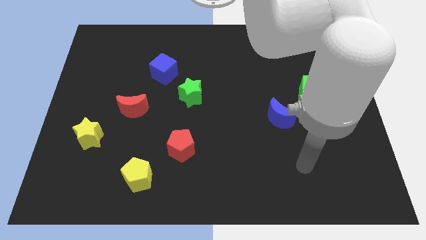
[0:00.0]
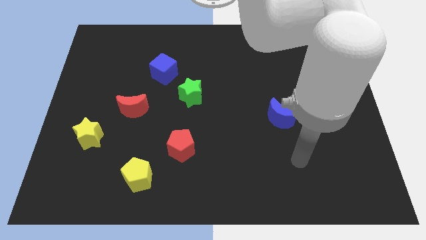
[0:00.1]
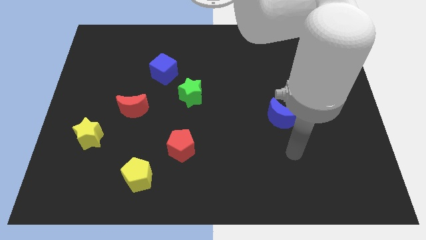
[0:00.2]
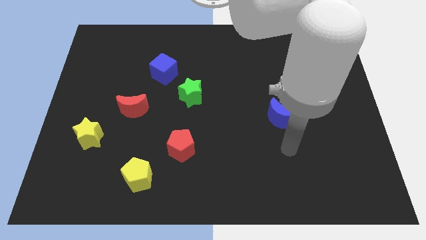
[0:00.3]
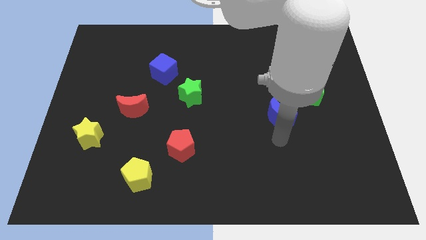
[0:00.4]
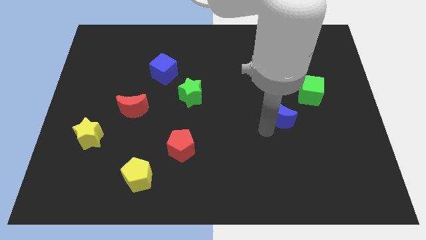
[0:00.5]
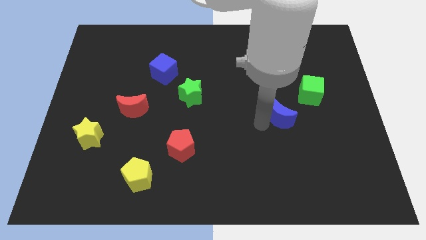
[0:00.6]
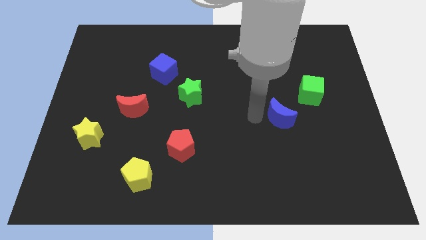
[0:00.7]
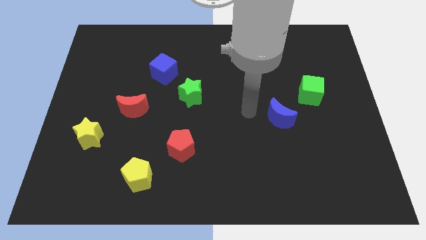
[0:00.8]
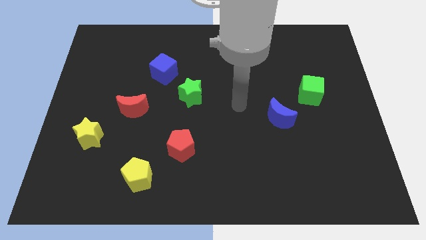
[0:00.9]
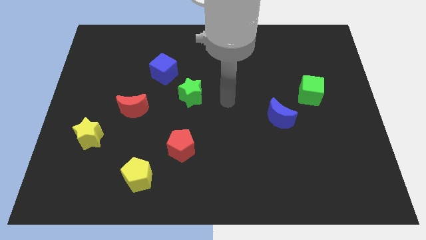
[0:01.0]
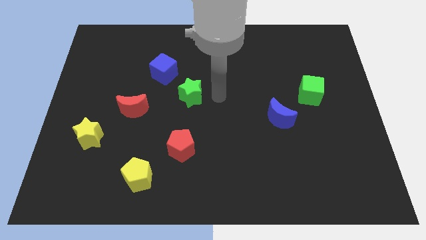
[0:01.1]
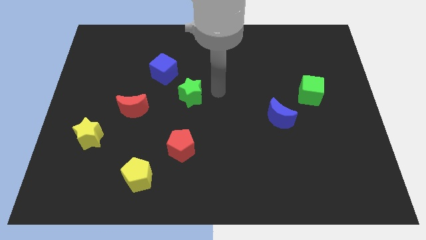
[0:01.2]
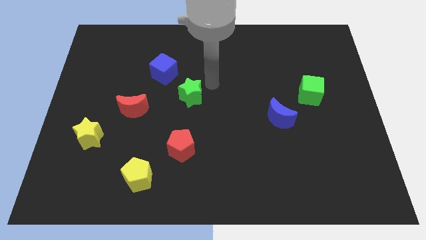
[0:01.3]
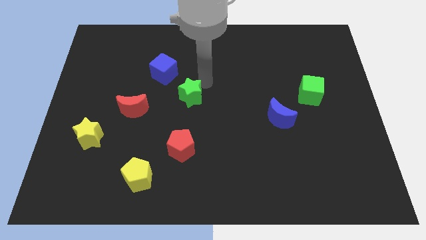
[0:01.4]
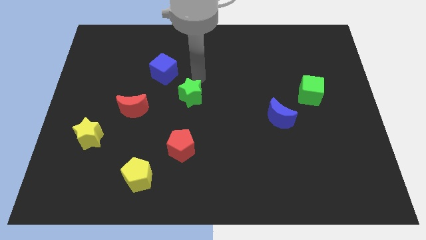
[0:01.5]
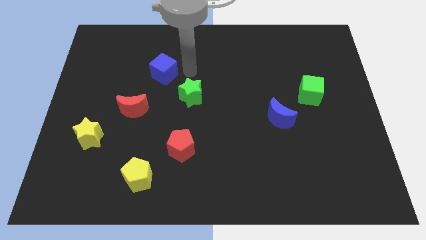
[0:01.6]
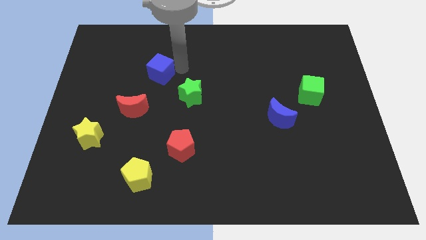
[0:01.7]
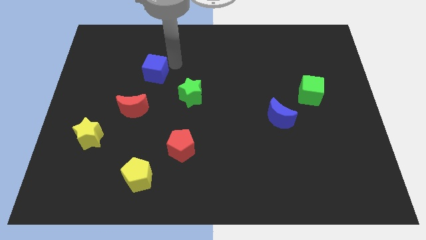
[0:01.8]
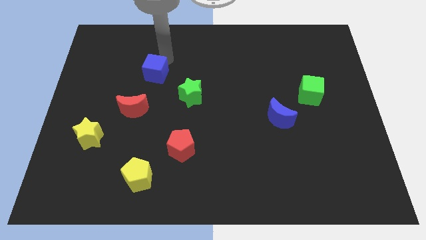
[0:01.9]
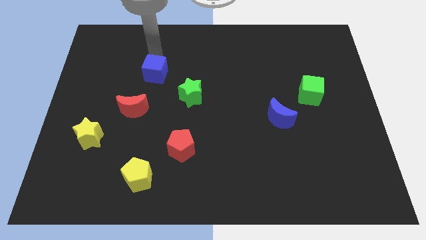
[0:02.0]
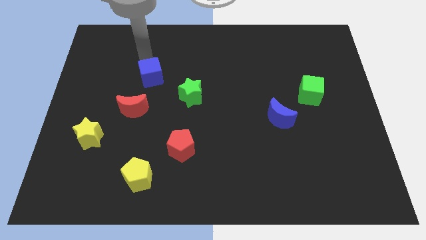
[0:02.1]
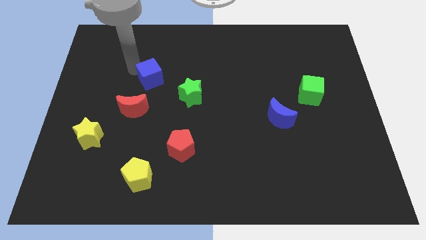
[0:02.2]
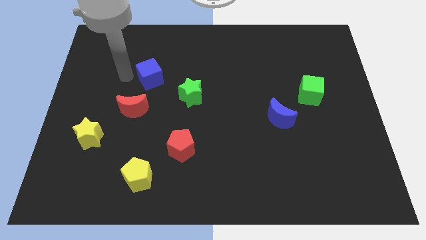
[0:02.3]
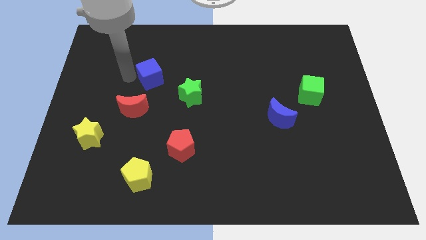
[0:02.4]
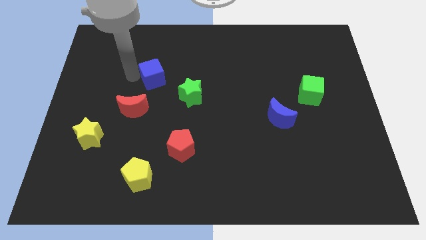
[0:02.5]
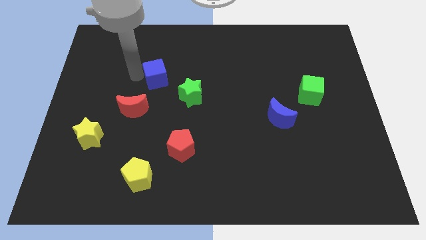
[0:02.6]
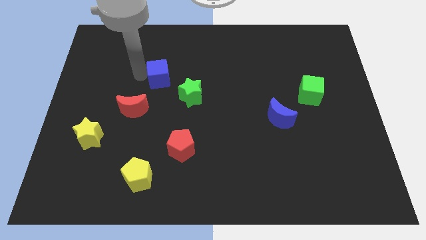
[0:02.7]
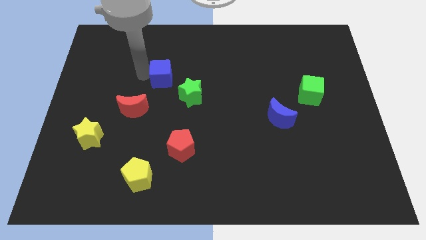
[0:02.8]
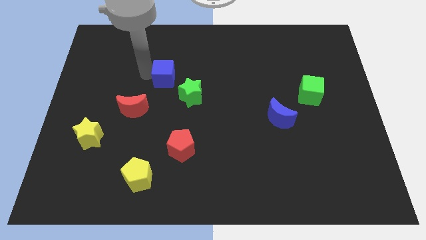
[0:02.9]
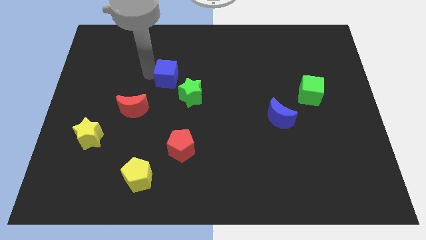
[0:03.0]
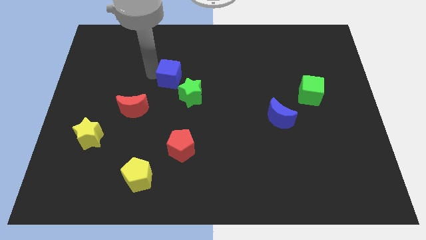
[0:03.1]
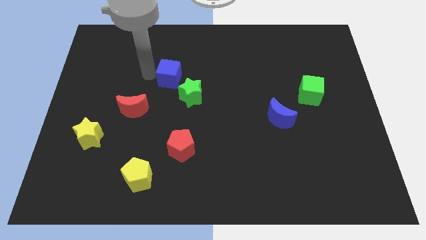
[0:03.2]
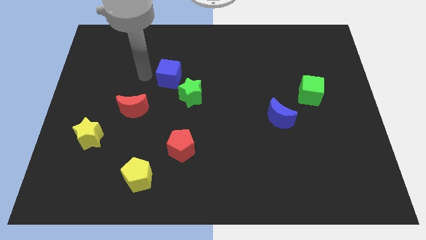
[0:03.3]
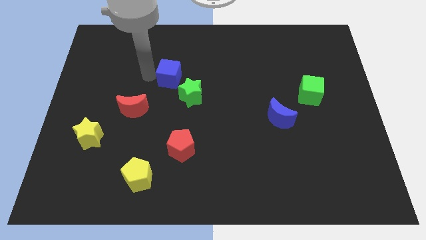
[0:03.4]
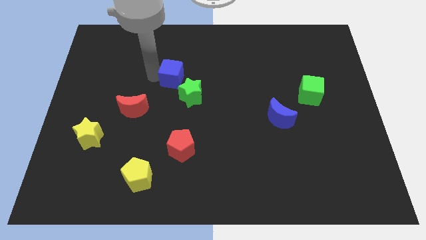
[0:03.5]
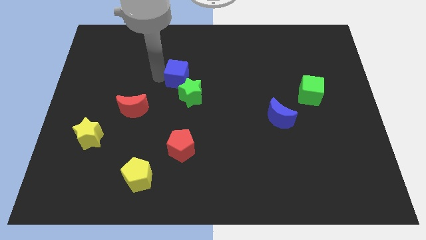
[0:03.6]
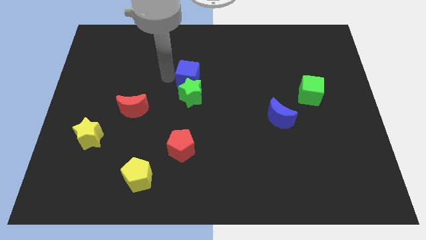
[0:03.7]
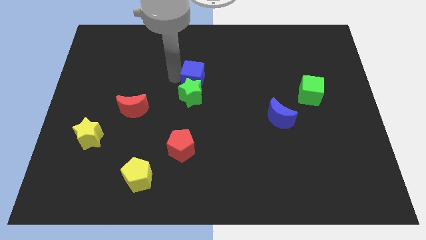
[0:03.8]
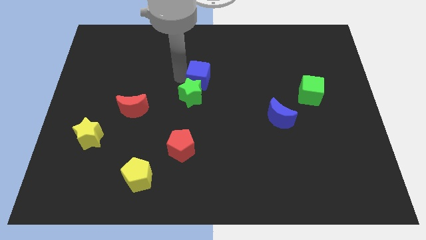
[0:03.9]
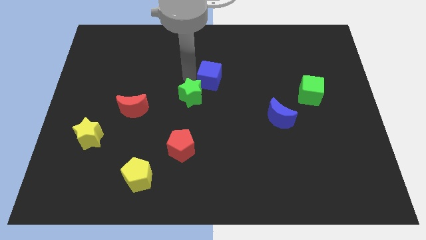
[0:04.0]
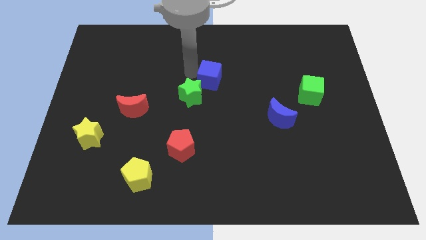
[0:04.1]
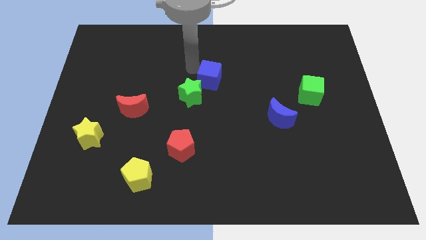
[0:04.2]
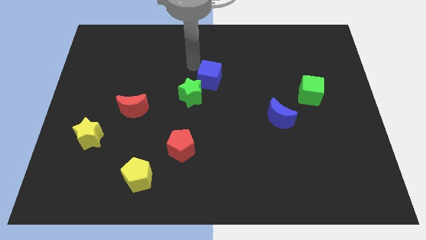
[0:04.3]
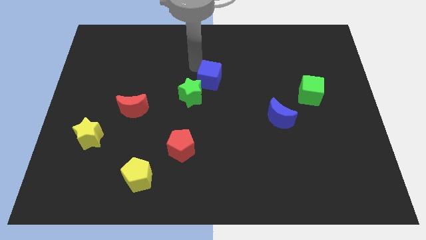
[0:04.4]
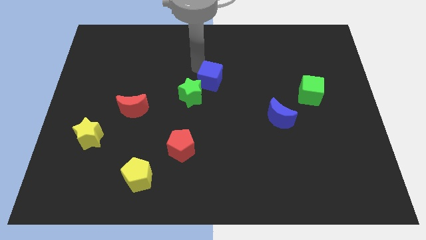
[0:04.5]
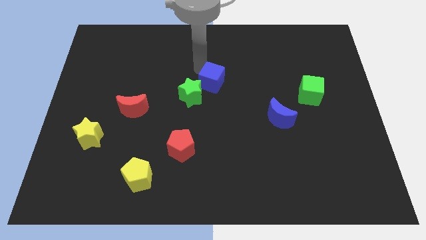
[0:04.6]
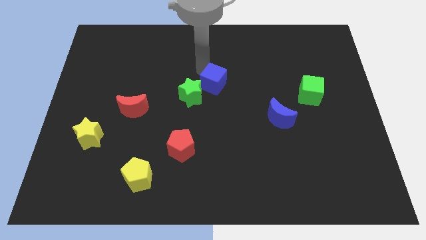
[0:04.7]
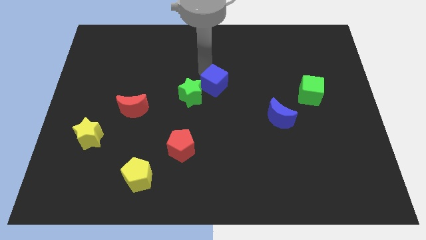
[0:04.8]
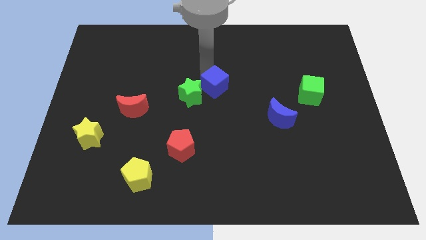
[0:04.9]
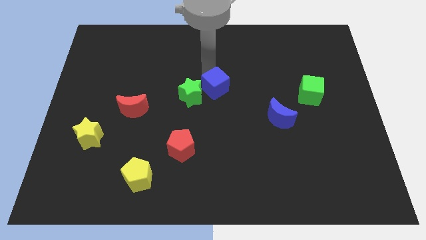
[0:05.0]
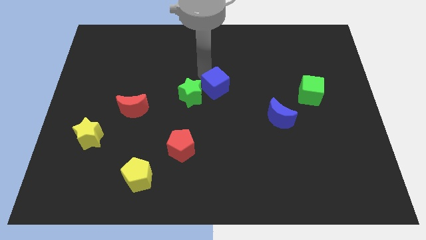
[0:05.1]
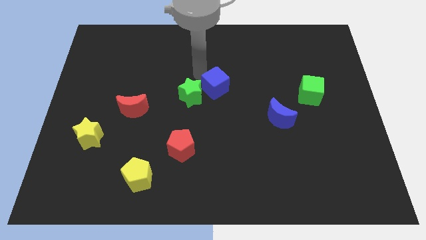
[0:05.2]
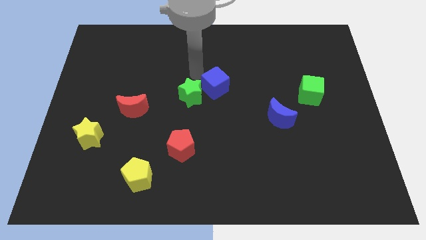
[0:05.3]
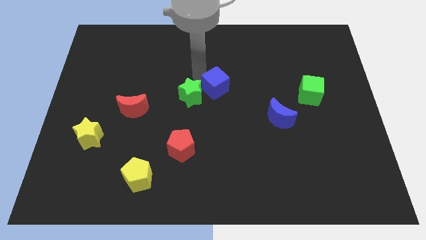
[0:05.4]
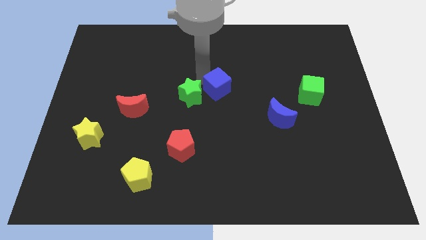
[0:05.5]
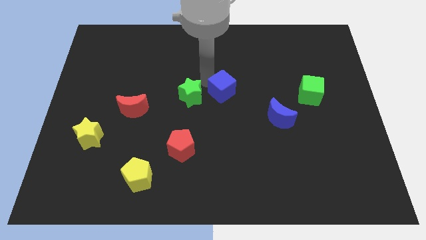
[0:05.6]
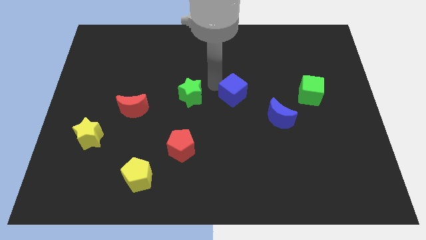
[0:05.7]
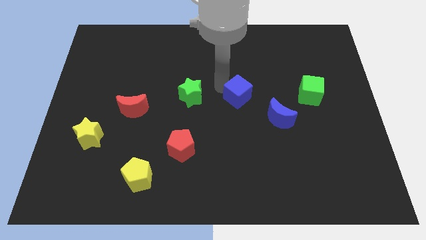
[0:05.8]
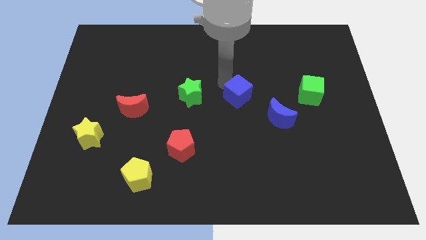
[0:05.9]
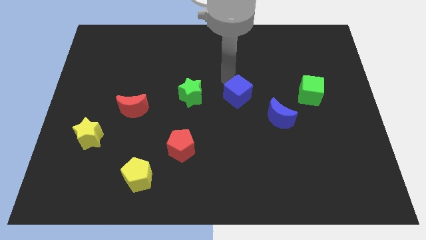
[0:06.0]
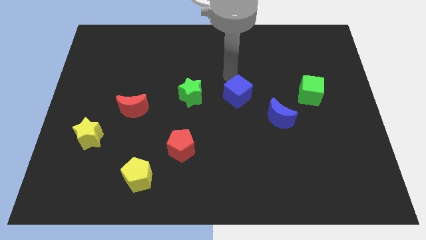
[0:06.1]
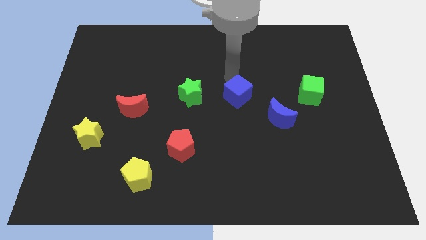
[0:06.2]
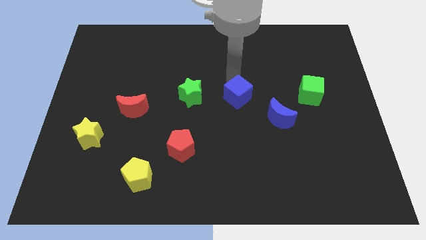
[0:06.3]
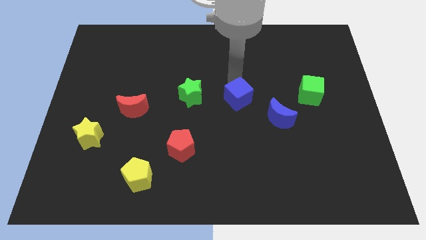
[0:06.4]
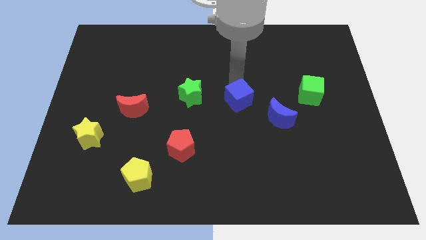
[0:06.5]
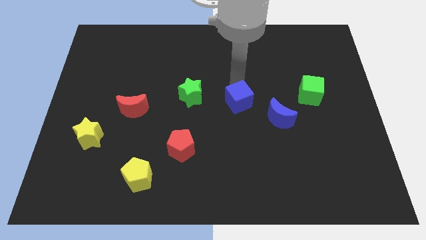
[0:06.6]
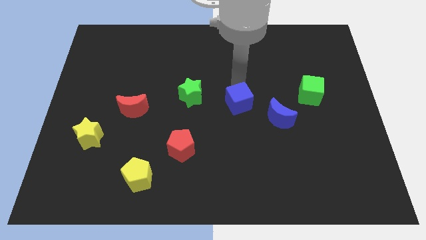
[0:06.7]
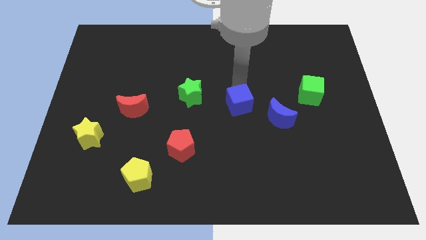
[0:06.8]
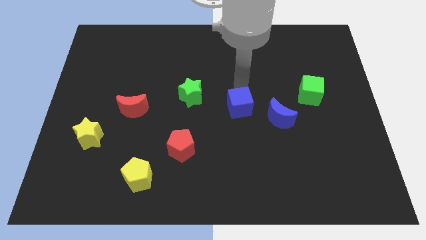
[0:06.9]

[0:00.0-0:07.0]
move the blue cube downwards and then to the right

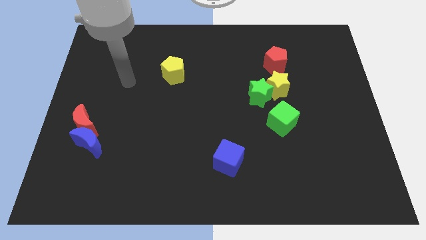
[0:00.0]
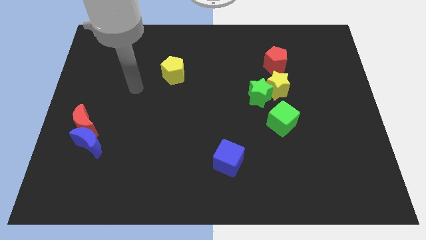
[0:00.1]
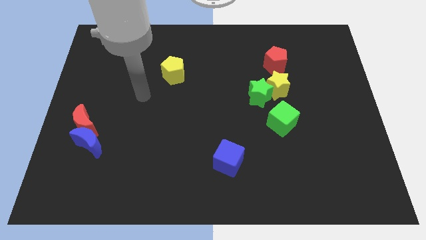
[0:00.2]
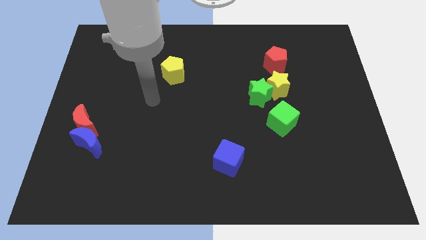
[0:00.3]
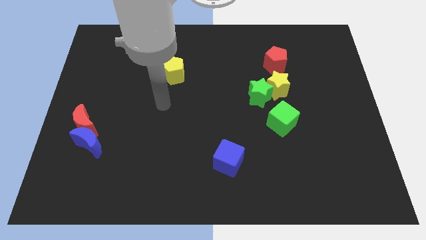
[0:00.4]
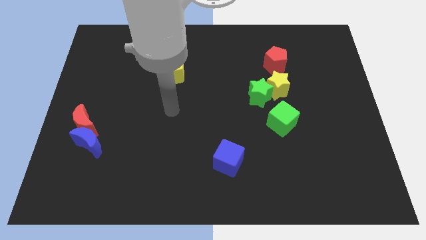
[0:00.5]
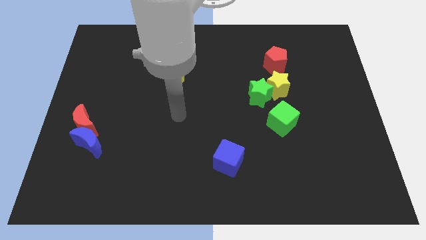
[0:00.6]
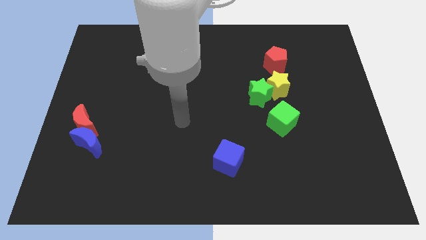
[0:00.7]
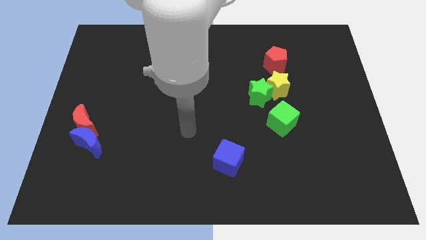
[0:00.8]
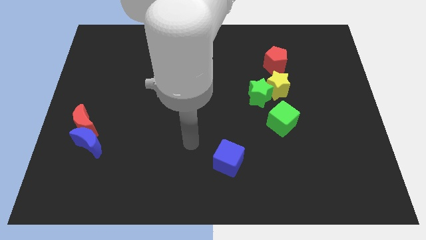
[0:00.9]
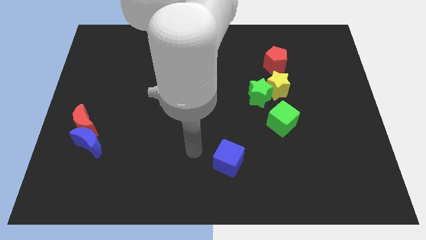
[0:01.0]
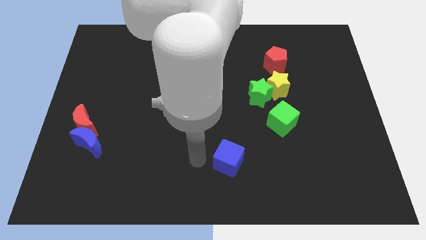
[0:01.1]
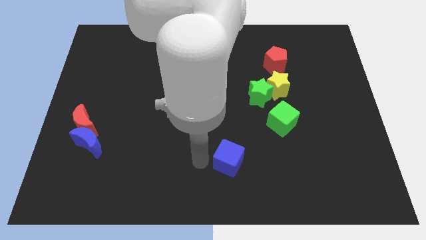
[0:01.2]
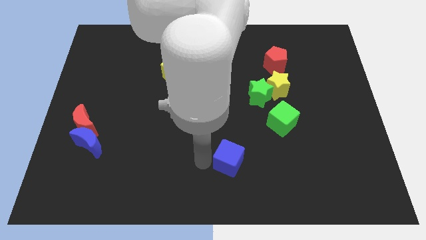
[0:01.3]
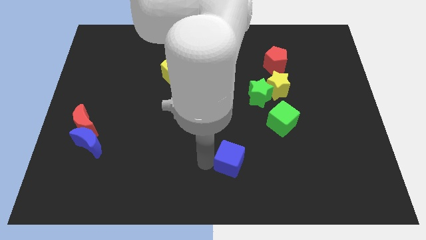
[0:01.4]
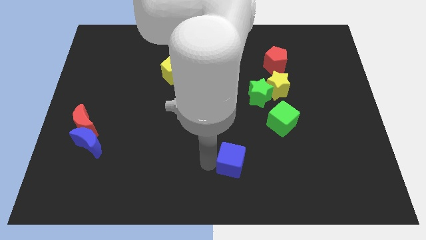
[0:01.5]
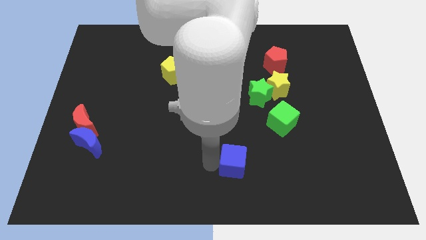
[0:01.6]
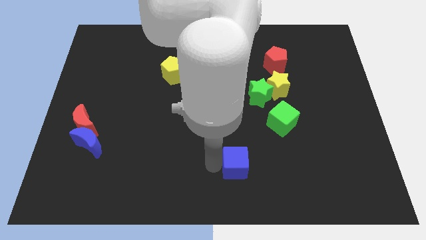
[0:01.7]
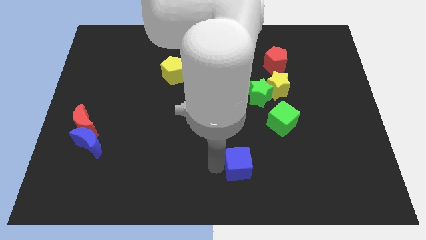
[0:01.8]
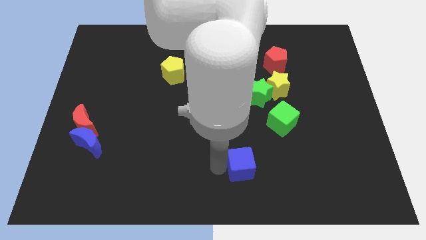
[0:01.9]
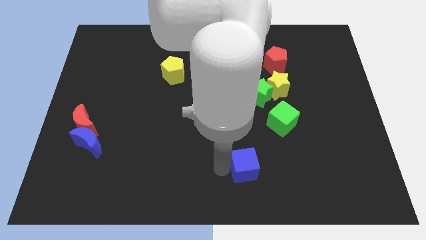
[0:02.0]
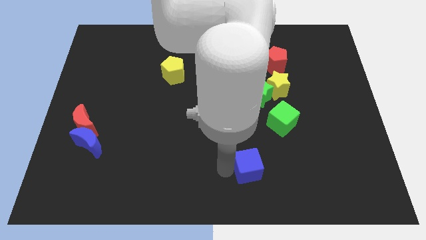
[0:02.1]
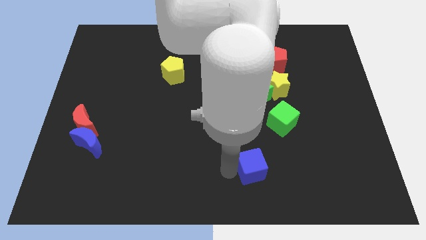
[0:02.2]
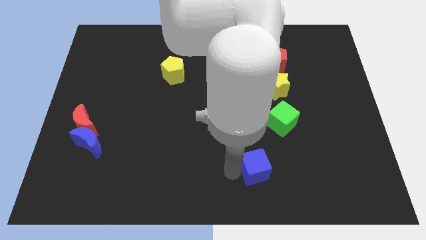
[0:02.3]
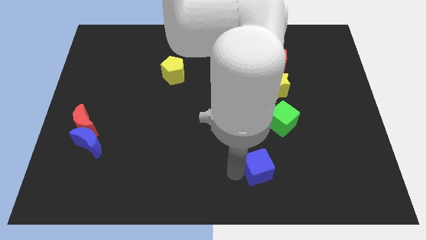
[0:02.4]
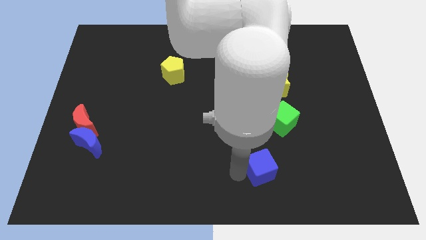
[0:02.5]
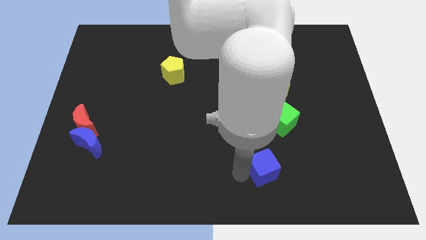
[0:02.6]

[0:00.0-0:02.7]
slightly move the blue cube to the right
